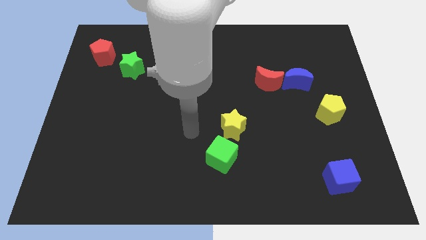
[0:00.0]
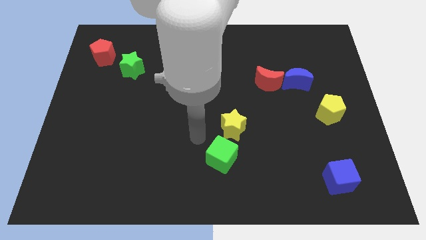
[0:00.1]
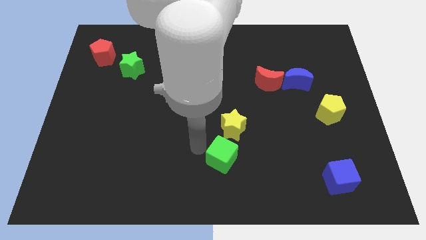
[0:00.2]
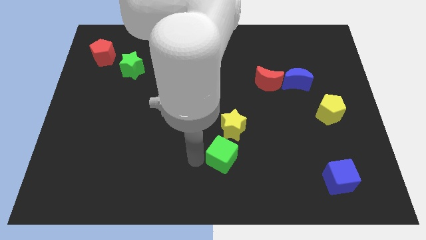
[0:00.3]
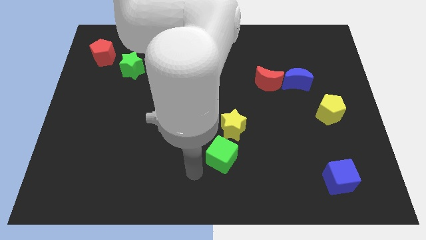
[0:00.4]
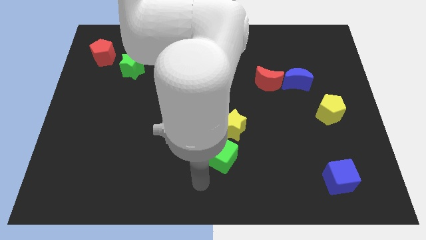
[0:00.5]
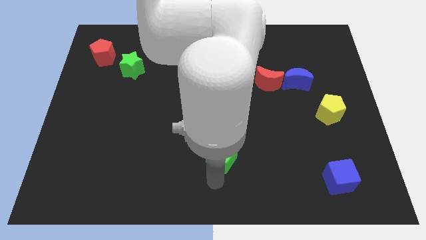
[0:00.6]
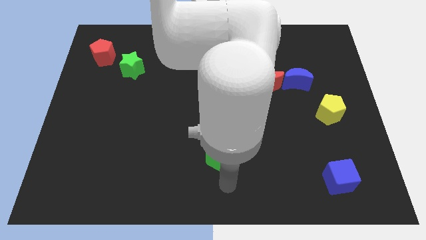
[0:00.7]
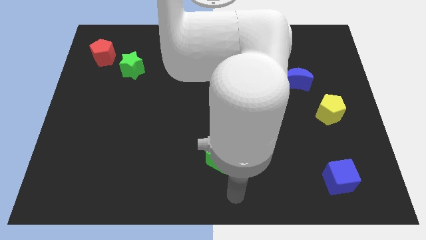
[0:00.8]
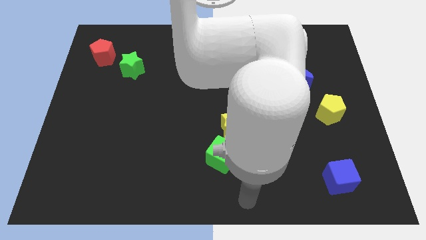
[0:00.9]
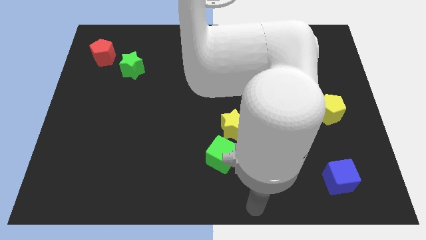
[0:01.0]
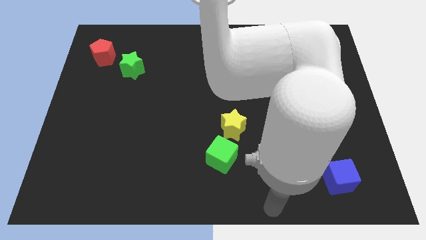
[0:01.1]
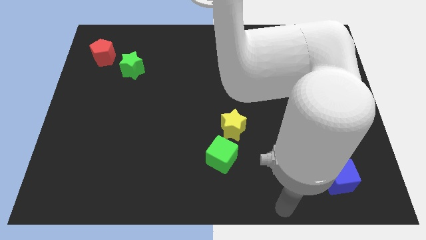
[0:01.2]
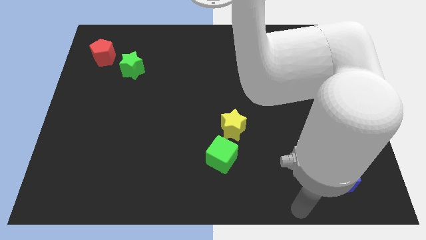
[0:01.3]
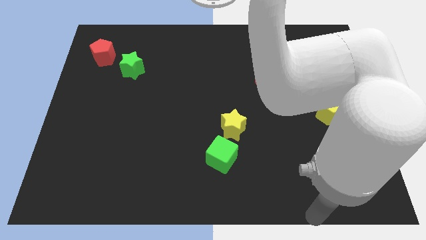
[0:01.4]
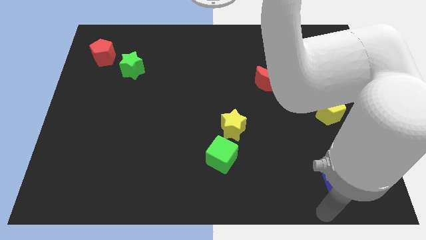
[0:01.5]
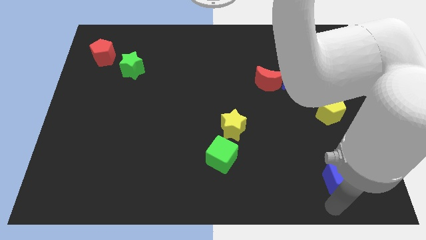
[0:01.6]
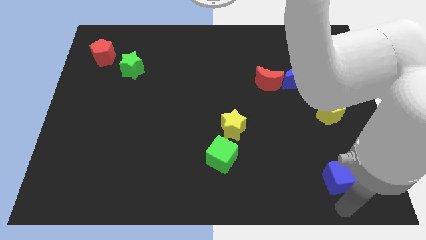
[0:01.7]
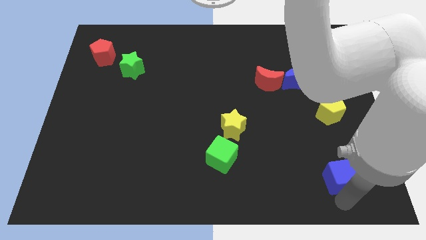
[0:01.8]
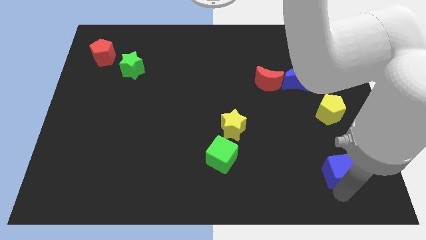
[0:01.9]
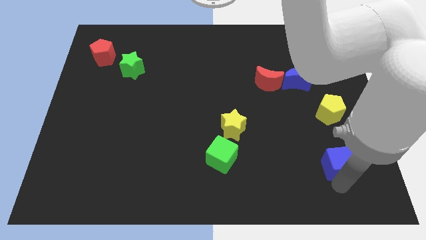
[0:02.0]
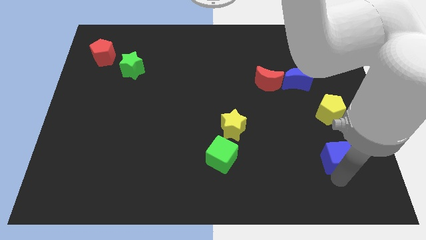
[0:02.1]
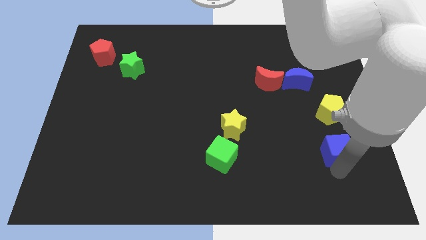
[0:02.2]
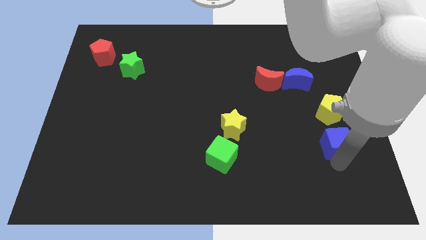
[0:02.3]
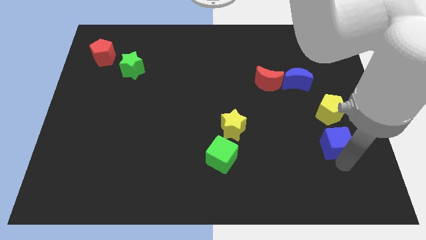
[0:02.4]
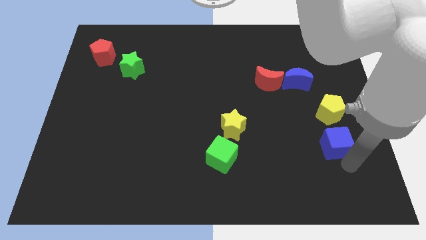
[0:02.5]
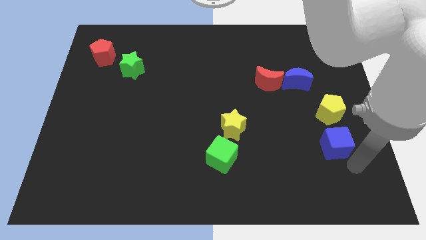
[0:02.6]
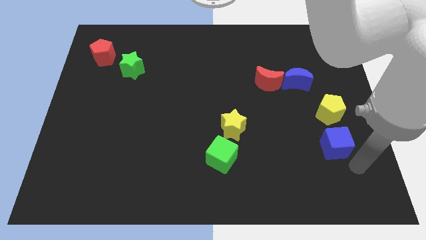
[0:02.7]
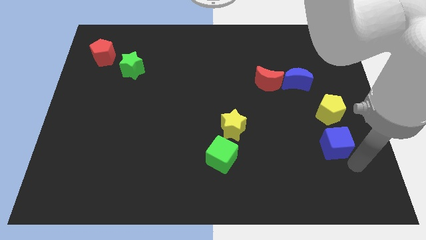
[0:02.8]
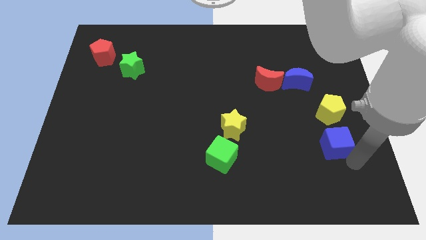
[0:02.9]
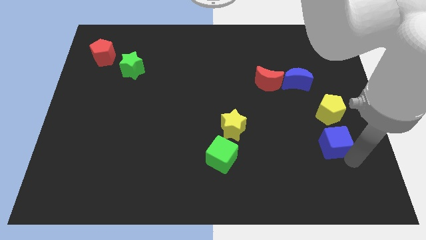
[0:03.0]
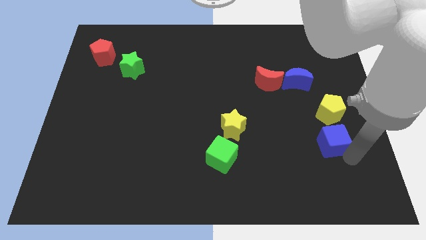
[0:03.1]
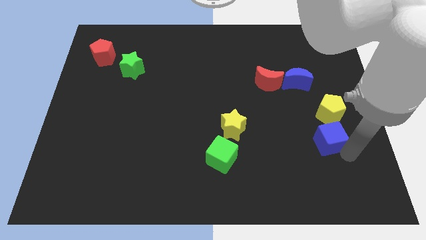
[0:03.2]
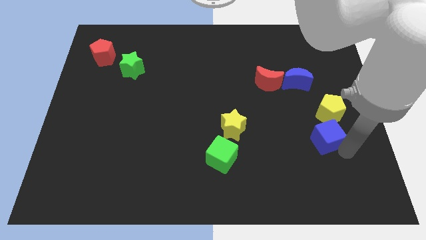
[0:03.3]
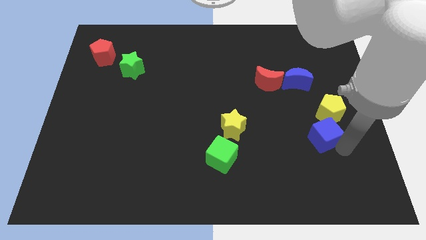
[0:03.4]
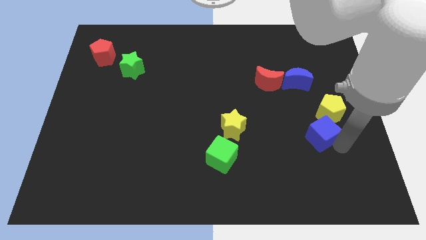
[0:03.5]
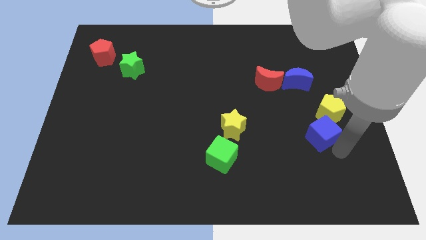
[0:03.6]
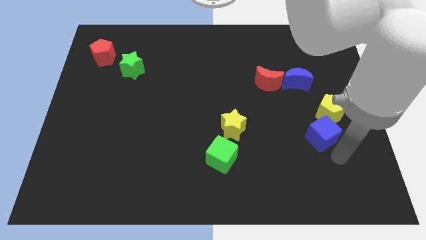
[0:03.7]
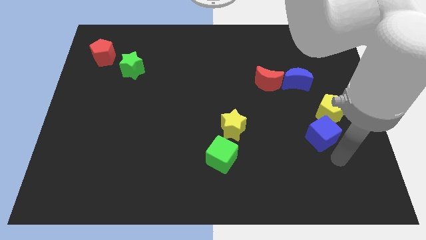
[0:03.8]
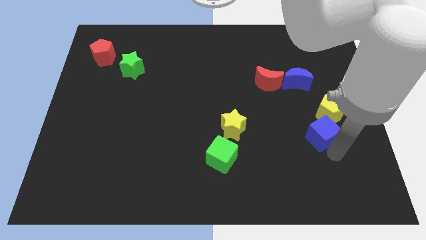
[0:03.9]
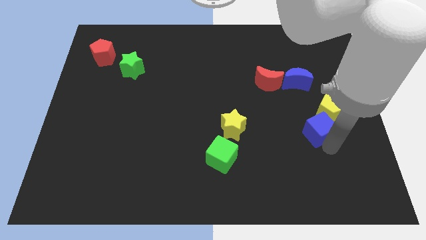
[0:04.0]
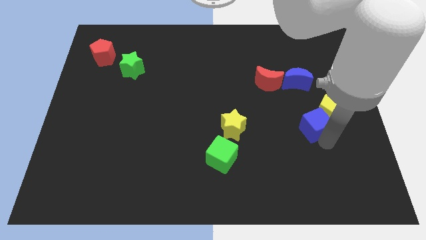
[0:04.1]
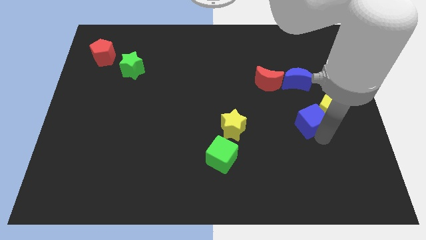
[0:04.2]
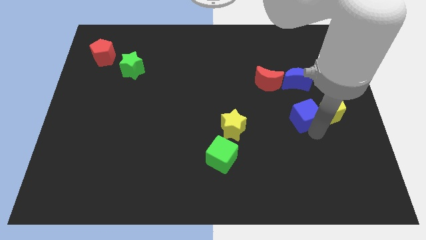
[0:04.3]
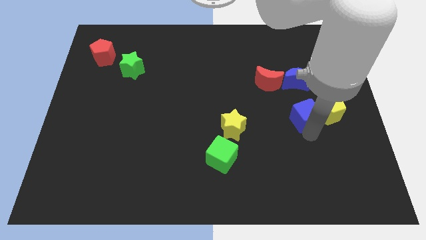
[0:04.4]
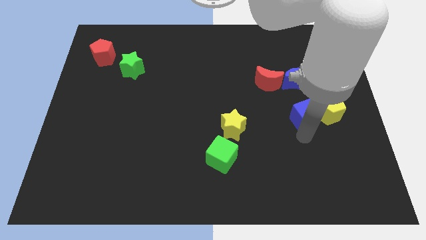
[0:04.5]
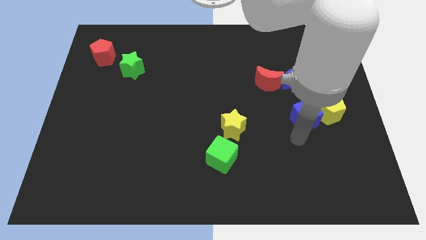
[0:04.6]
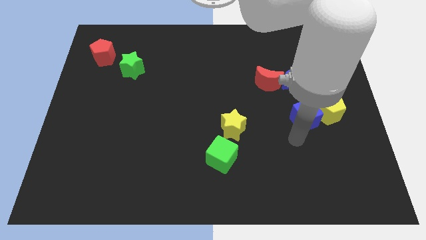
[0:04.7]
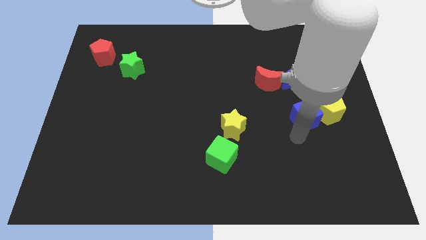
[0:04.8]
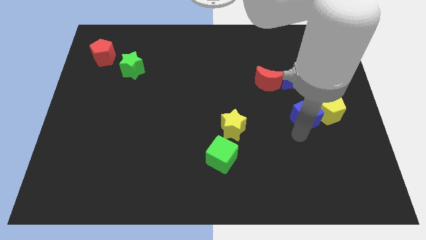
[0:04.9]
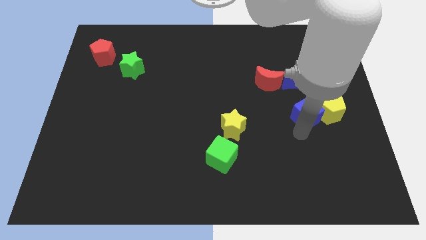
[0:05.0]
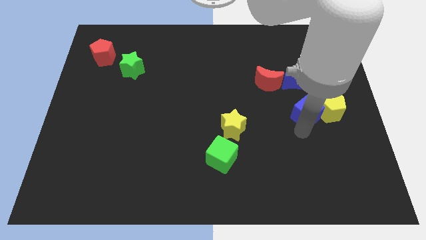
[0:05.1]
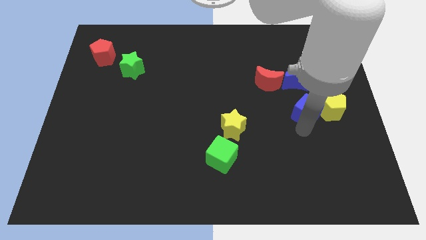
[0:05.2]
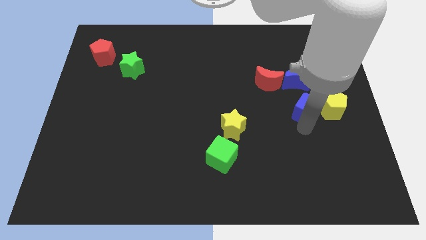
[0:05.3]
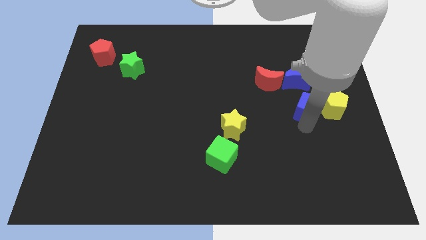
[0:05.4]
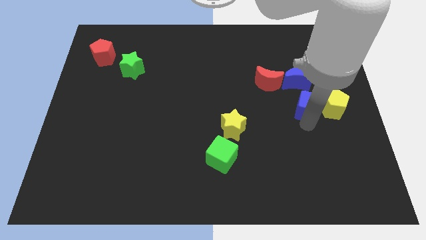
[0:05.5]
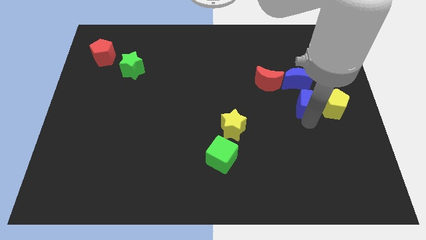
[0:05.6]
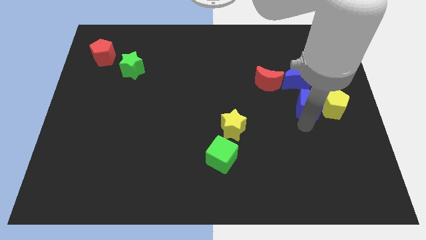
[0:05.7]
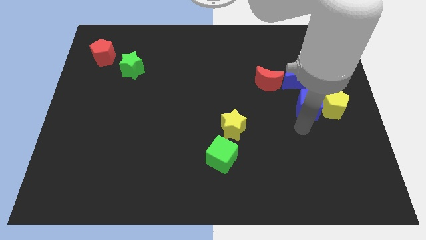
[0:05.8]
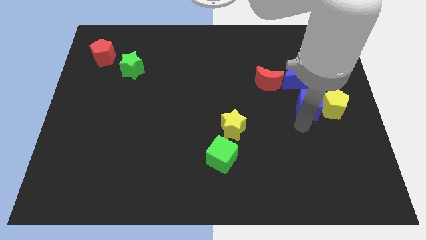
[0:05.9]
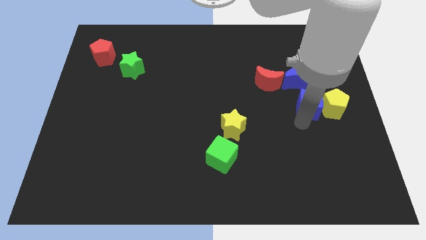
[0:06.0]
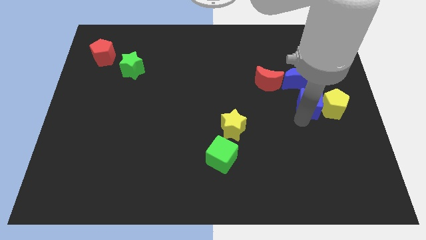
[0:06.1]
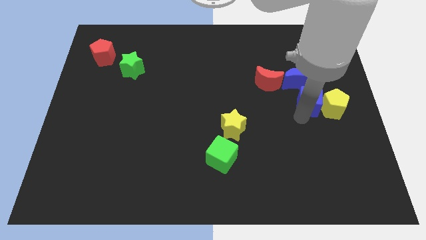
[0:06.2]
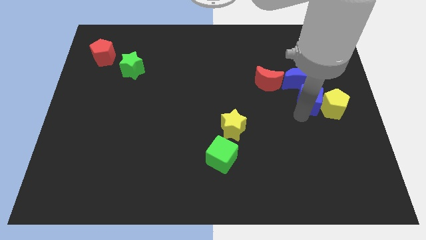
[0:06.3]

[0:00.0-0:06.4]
push the blue cube up

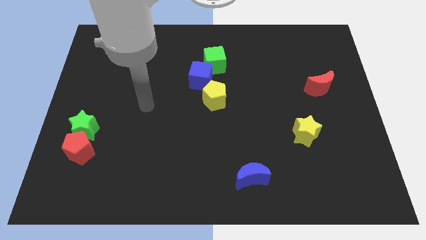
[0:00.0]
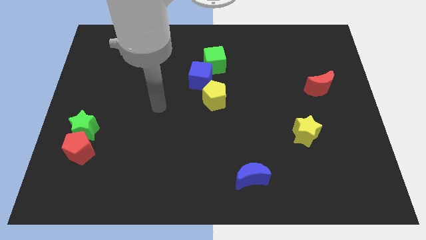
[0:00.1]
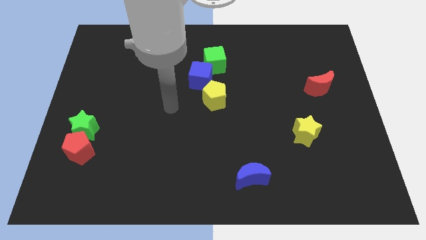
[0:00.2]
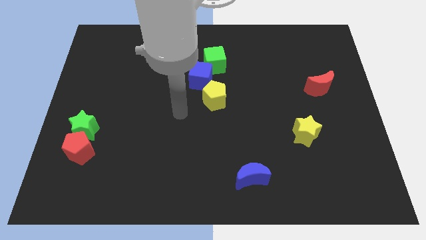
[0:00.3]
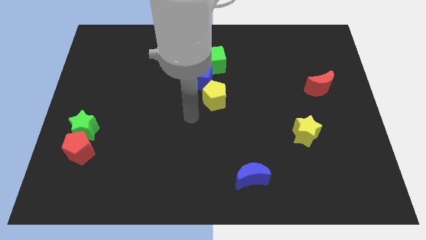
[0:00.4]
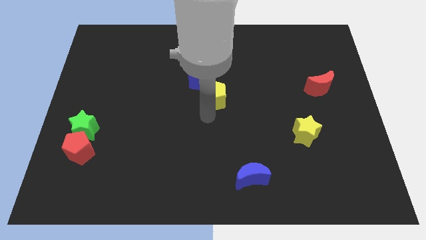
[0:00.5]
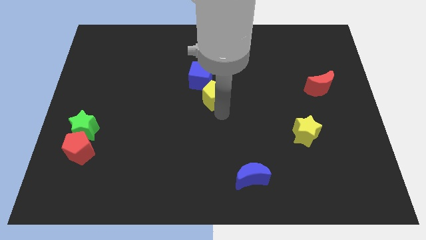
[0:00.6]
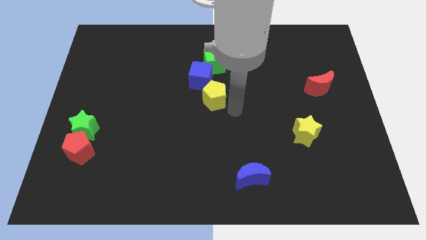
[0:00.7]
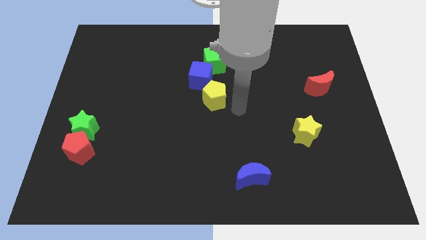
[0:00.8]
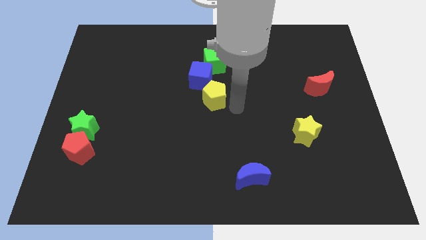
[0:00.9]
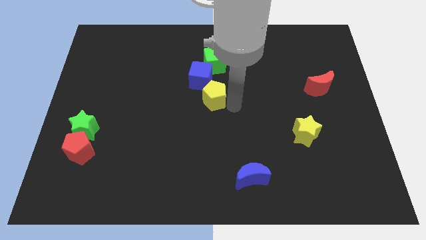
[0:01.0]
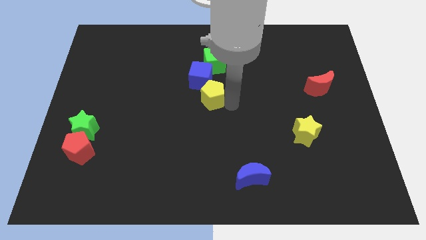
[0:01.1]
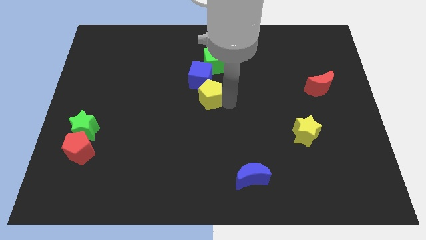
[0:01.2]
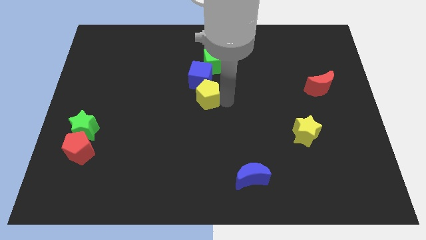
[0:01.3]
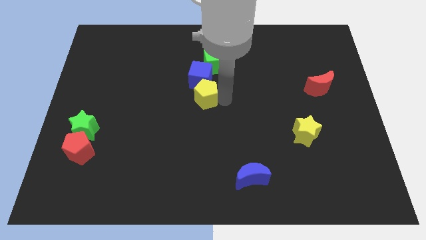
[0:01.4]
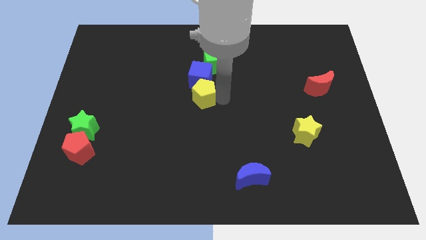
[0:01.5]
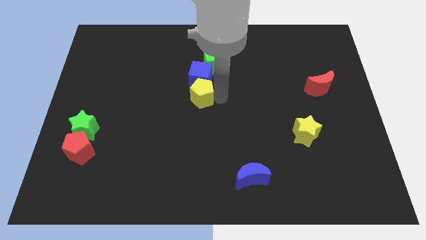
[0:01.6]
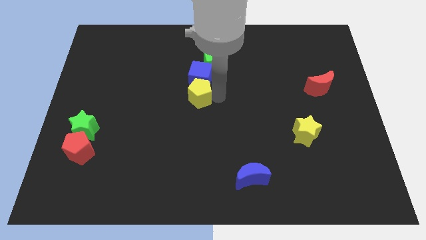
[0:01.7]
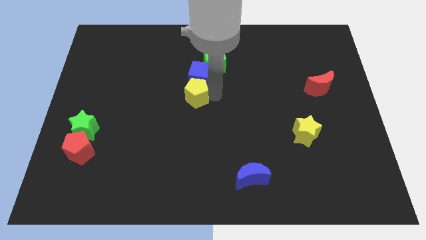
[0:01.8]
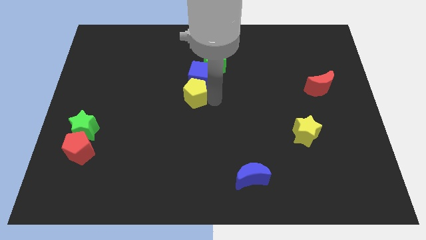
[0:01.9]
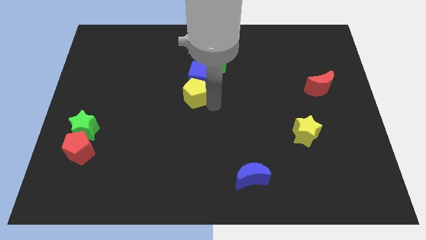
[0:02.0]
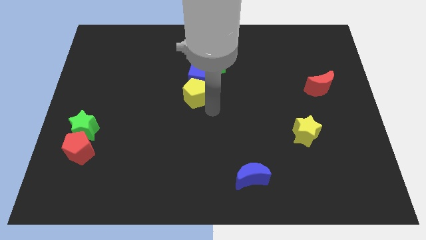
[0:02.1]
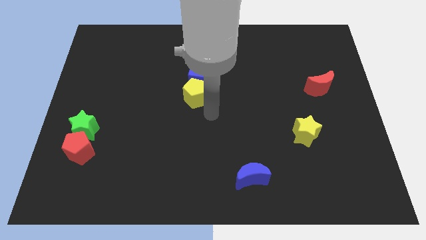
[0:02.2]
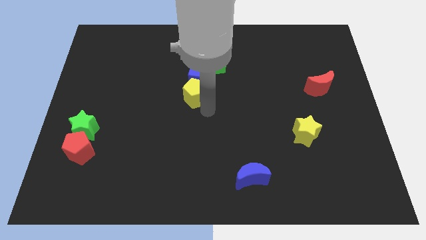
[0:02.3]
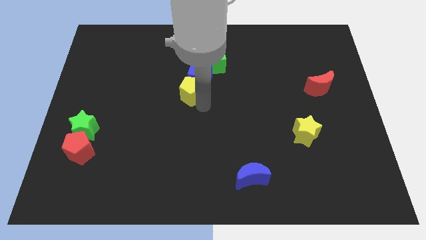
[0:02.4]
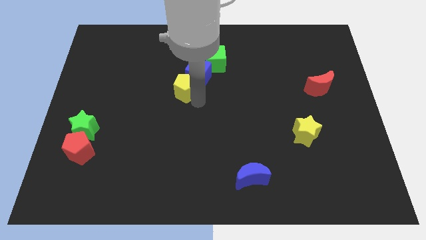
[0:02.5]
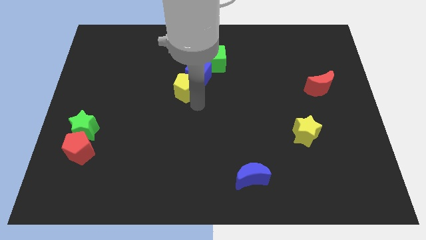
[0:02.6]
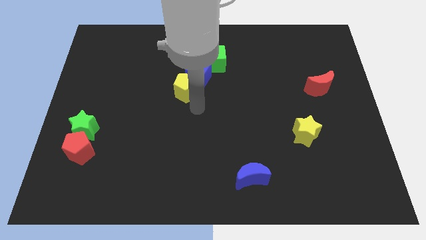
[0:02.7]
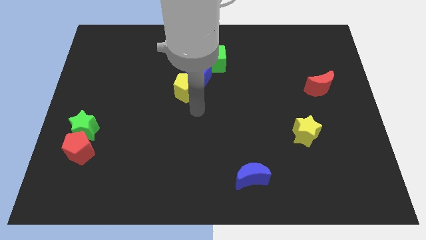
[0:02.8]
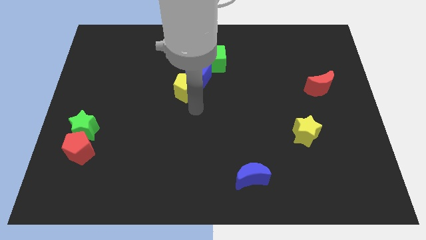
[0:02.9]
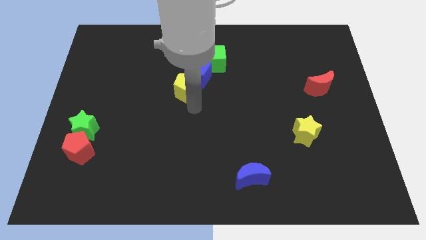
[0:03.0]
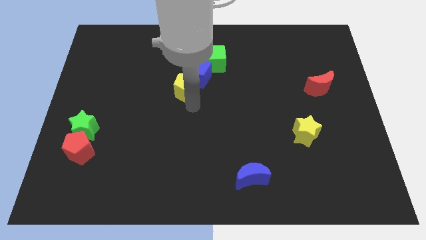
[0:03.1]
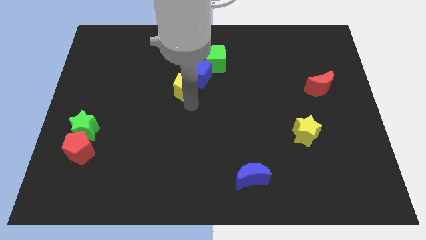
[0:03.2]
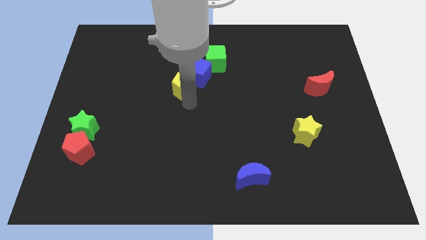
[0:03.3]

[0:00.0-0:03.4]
slightly move the yellow pentagon upwards and to the left diagonally
